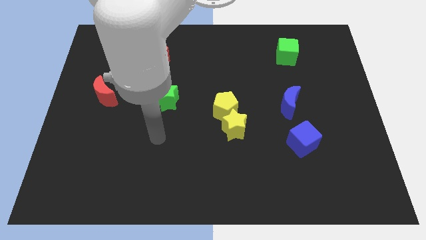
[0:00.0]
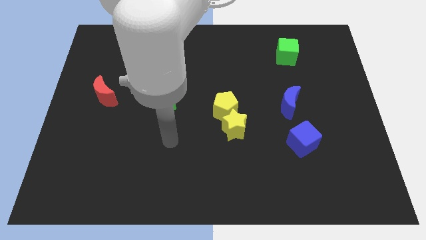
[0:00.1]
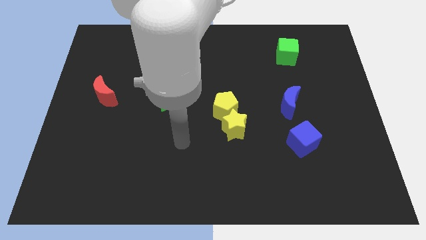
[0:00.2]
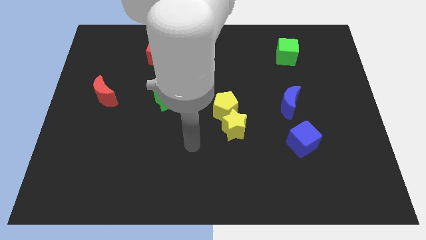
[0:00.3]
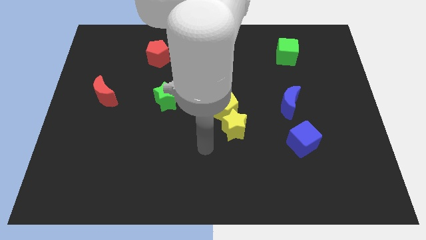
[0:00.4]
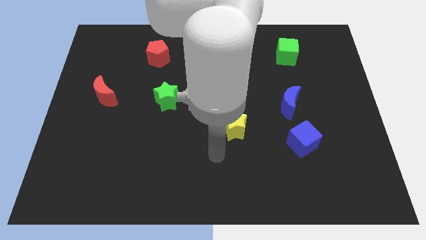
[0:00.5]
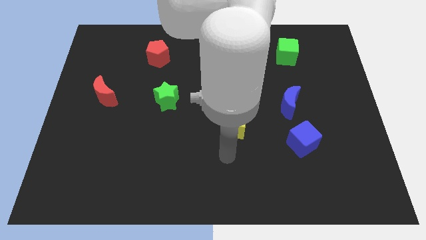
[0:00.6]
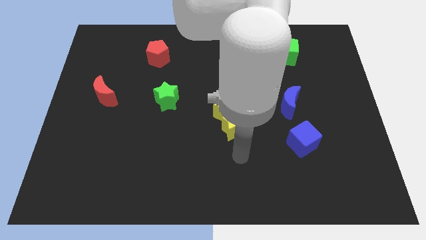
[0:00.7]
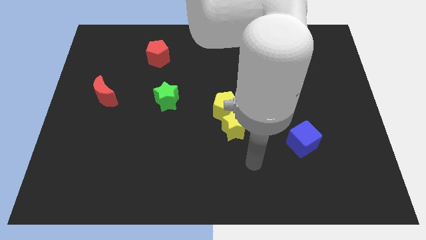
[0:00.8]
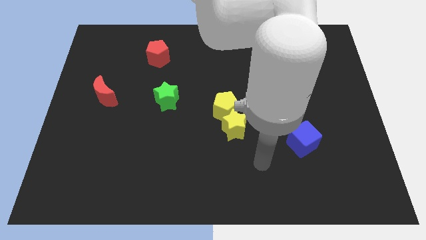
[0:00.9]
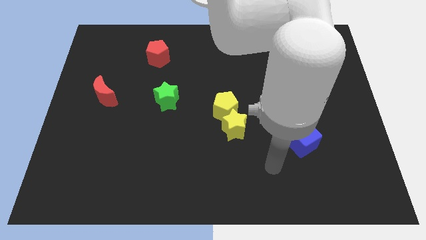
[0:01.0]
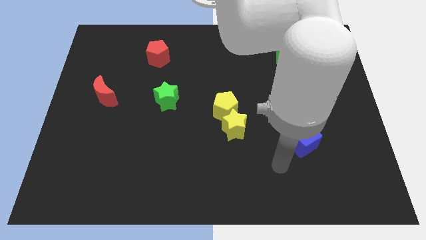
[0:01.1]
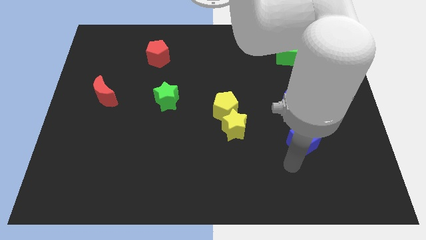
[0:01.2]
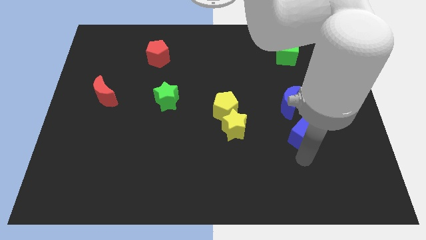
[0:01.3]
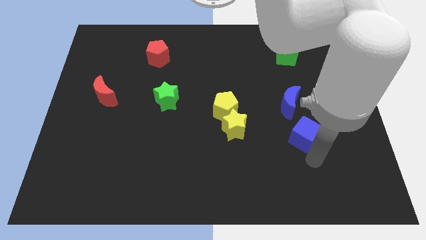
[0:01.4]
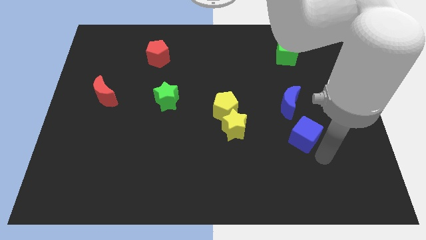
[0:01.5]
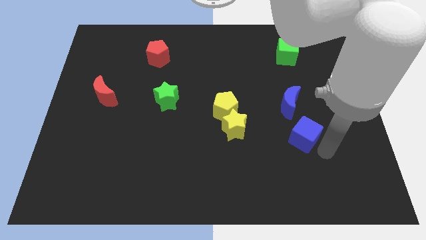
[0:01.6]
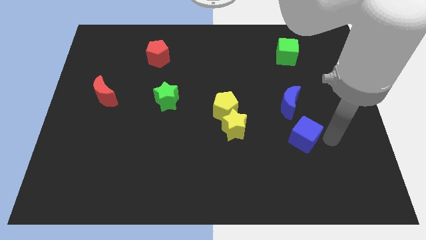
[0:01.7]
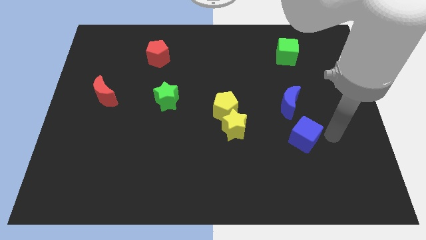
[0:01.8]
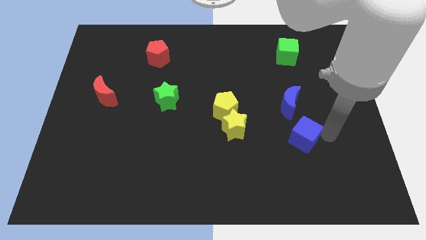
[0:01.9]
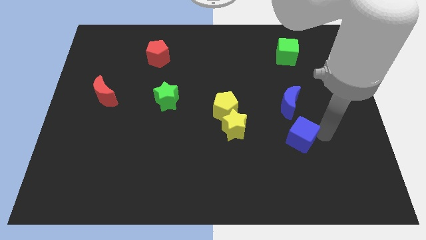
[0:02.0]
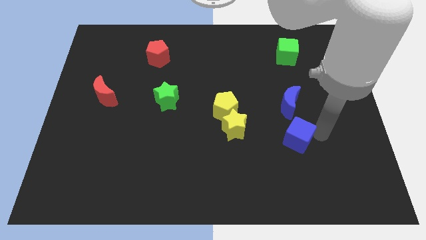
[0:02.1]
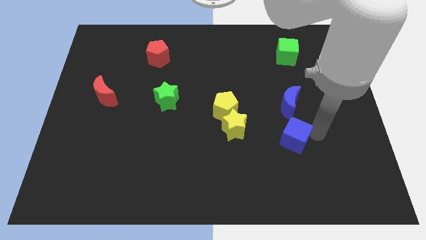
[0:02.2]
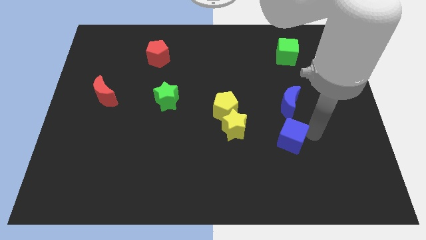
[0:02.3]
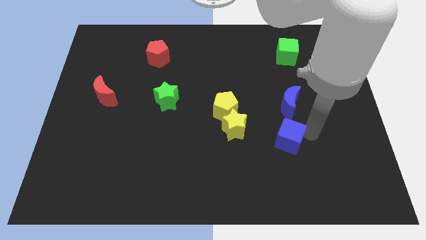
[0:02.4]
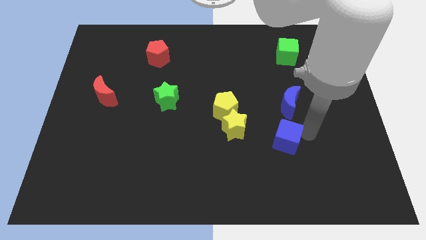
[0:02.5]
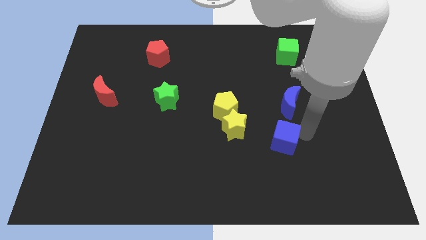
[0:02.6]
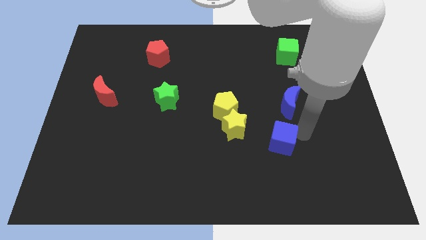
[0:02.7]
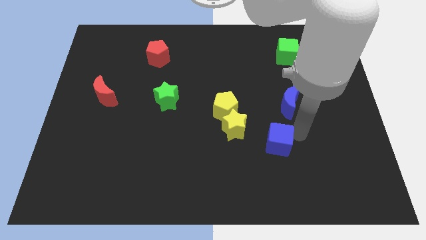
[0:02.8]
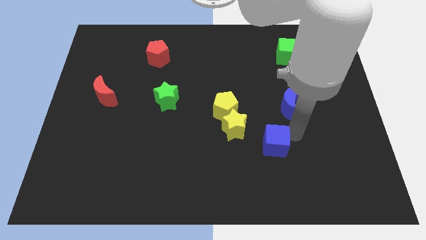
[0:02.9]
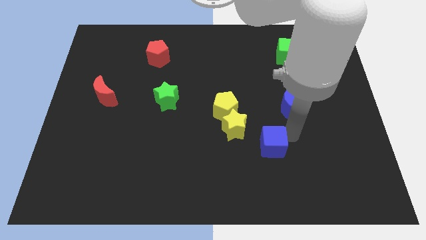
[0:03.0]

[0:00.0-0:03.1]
slide the blue cube somewhat left

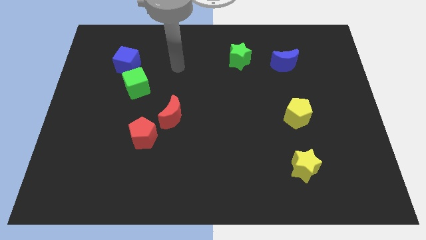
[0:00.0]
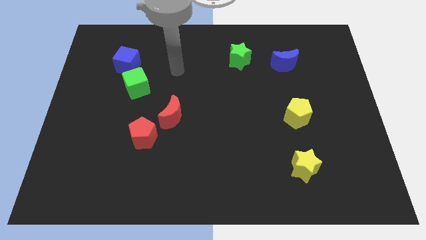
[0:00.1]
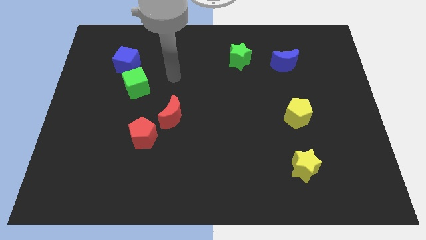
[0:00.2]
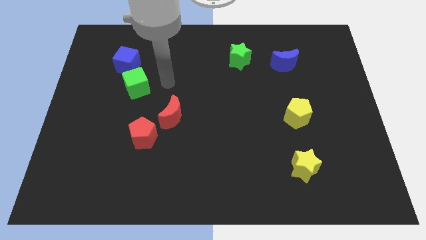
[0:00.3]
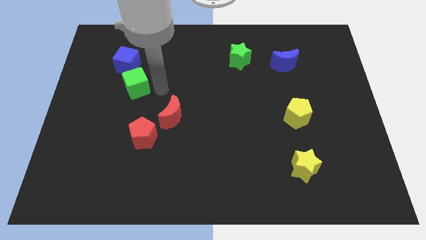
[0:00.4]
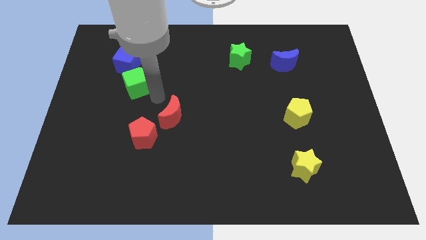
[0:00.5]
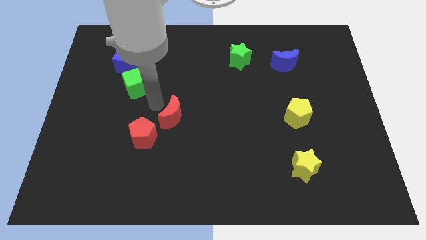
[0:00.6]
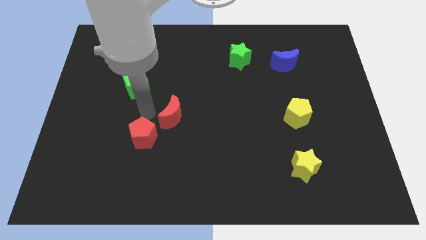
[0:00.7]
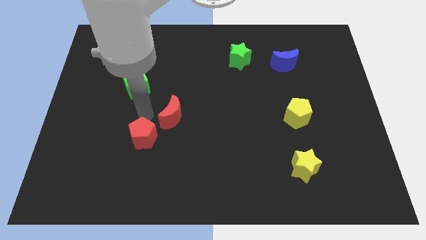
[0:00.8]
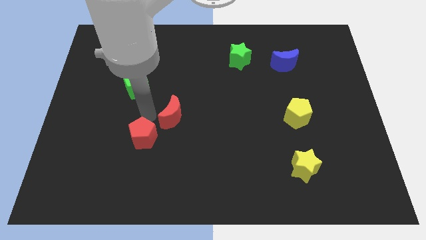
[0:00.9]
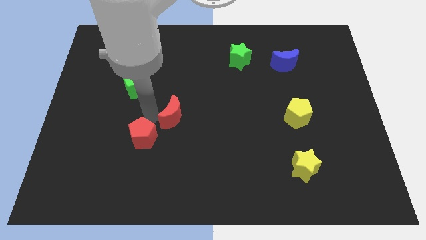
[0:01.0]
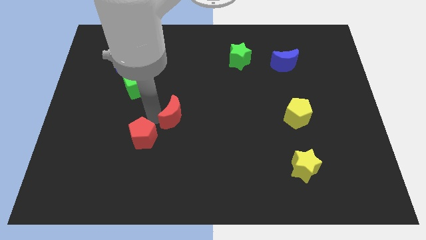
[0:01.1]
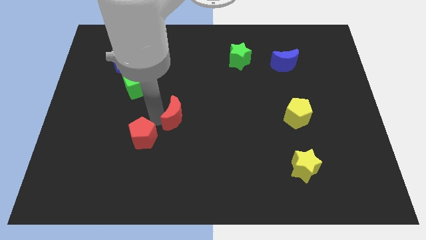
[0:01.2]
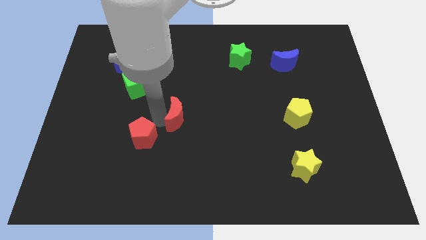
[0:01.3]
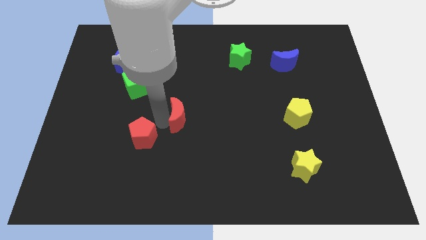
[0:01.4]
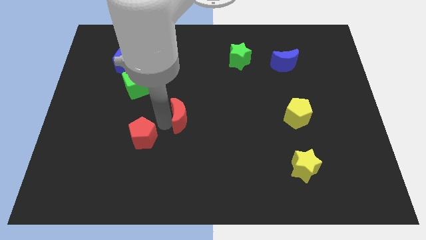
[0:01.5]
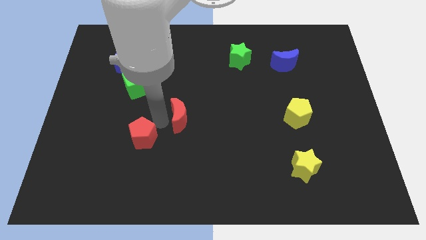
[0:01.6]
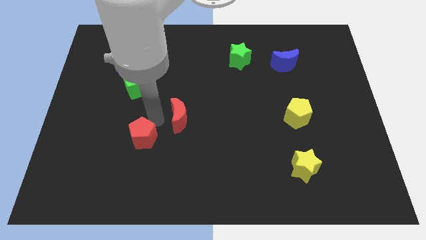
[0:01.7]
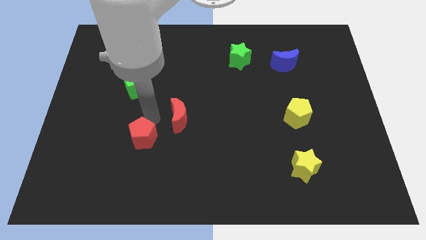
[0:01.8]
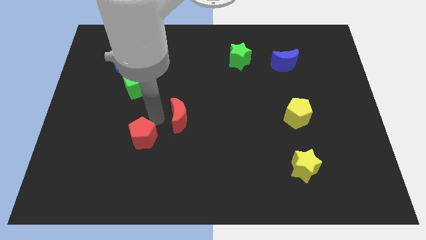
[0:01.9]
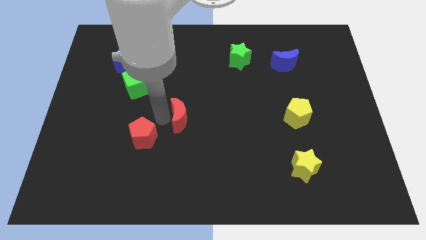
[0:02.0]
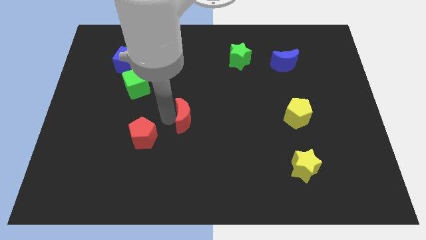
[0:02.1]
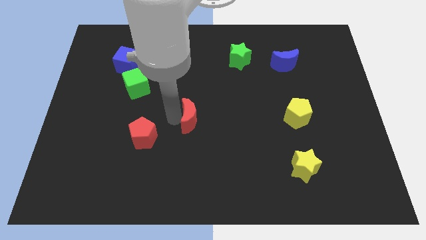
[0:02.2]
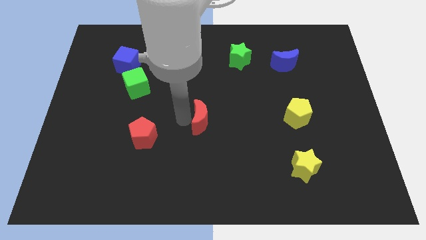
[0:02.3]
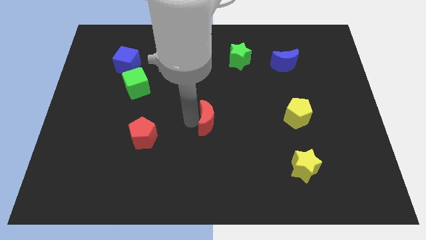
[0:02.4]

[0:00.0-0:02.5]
slightly move the red moon to the right

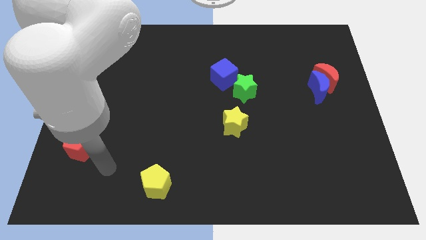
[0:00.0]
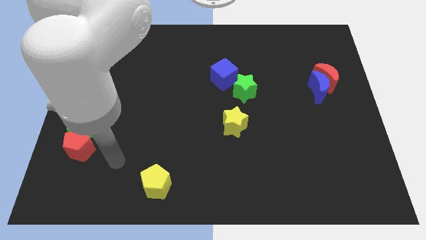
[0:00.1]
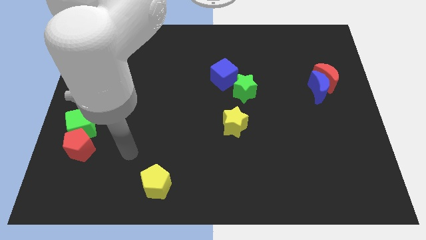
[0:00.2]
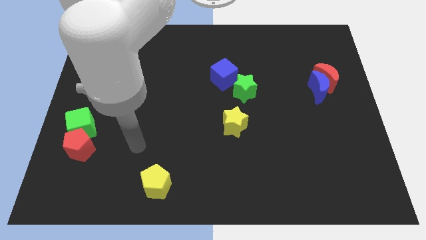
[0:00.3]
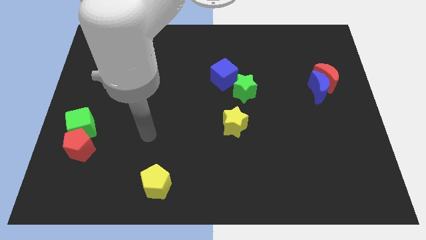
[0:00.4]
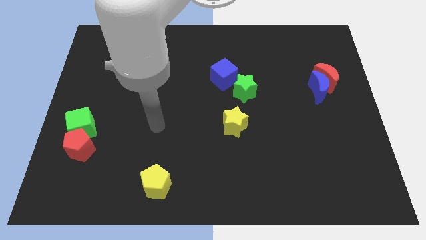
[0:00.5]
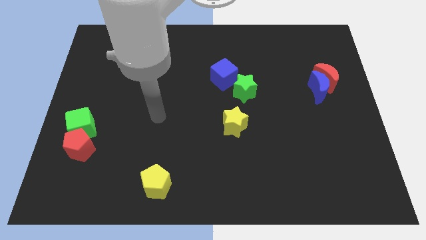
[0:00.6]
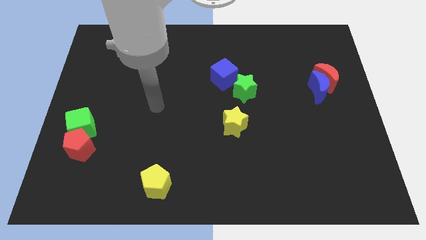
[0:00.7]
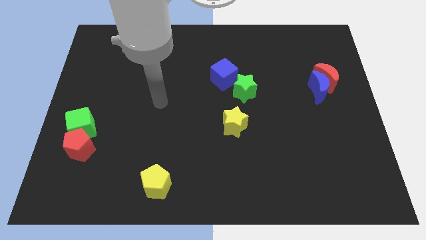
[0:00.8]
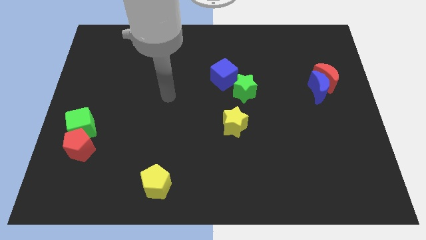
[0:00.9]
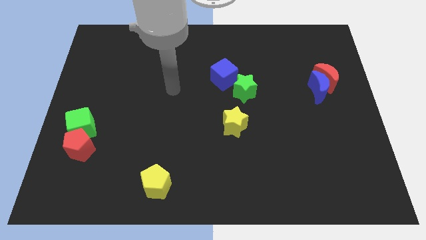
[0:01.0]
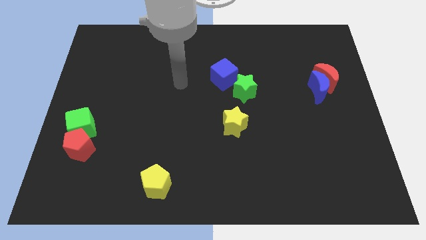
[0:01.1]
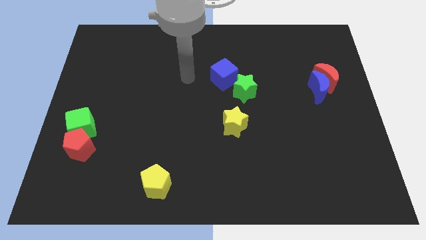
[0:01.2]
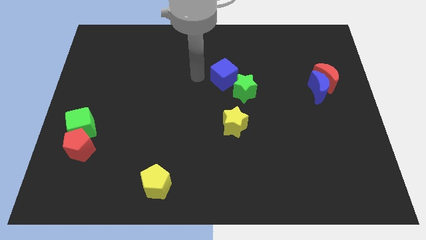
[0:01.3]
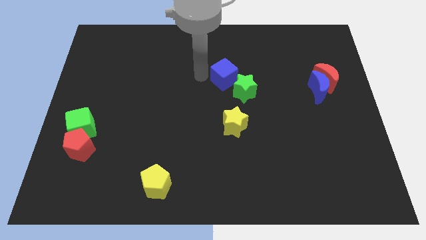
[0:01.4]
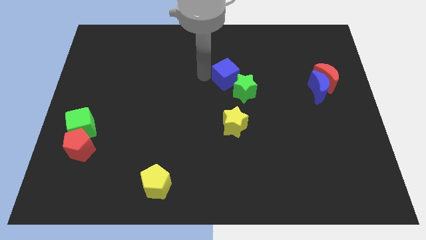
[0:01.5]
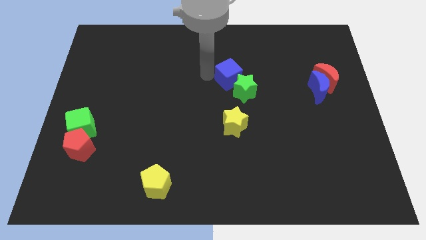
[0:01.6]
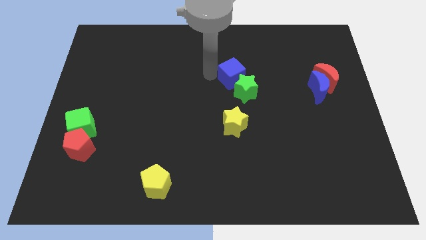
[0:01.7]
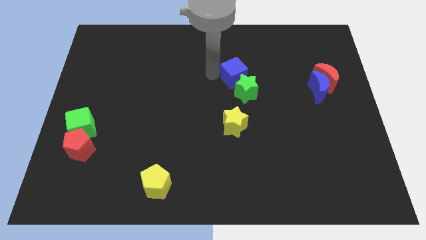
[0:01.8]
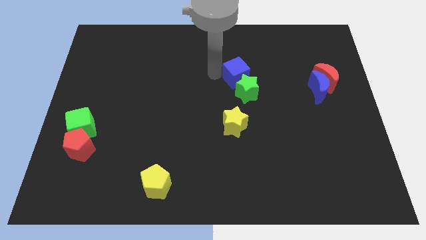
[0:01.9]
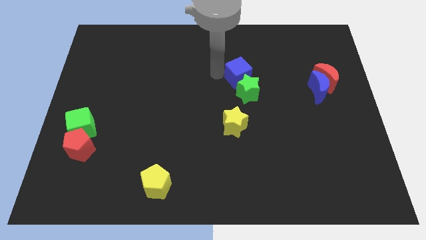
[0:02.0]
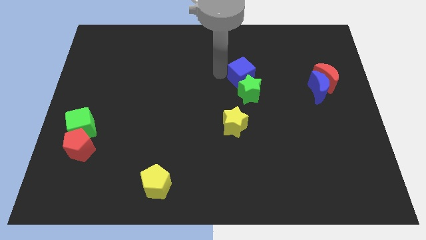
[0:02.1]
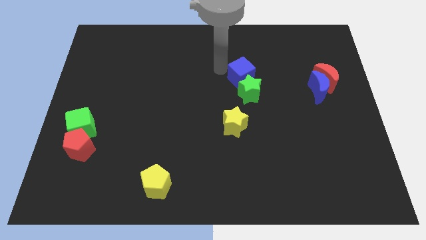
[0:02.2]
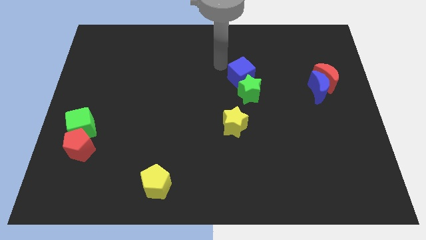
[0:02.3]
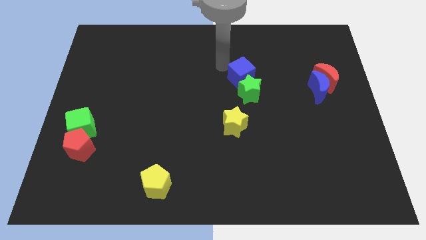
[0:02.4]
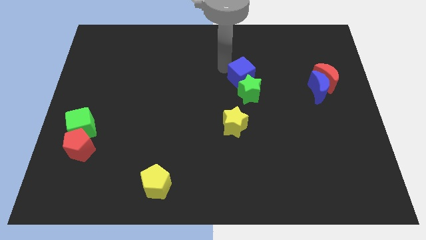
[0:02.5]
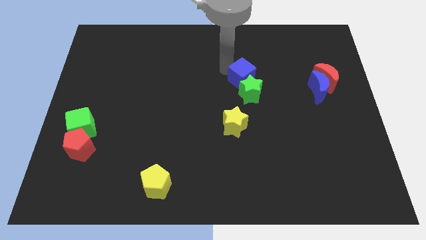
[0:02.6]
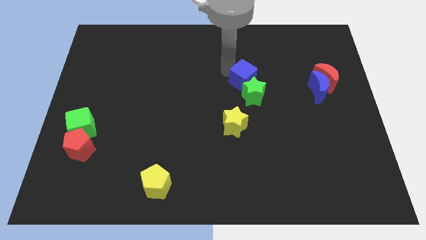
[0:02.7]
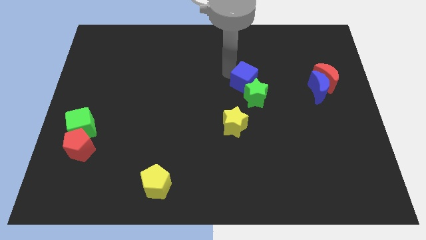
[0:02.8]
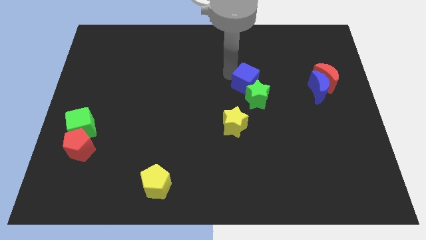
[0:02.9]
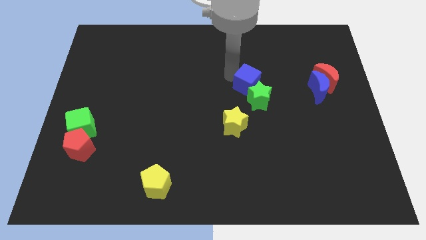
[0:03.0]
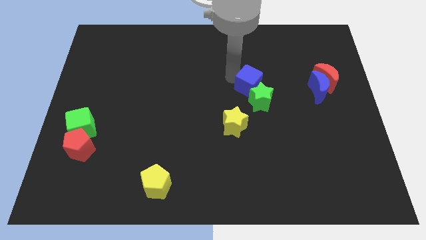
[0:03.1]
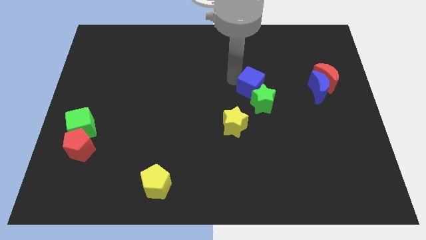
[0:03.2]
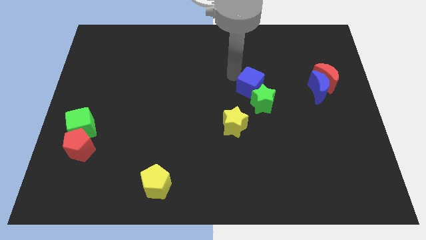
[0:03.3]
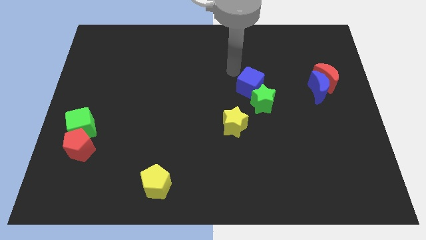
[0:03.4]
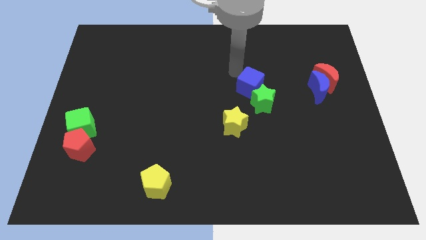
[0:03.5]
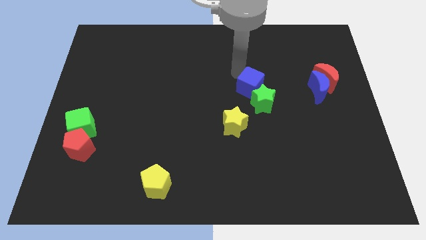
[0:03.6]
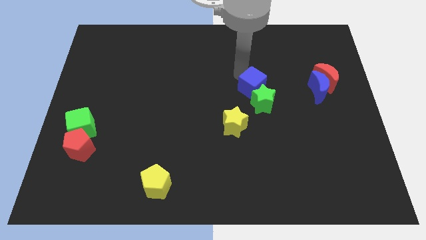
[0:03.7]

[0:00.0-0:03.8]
slightly slide the blue cube down and then to the right
